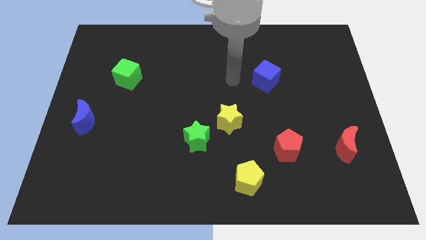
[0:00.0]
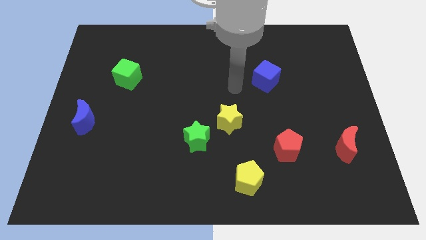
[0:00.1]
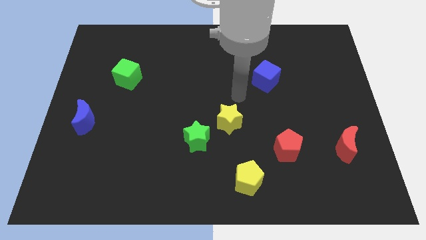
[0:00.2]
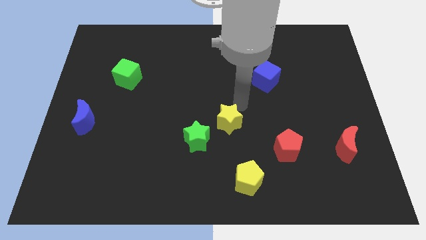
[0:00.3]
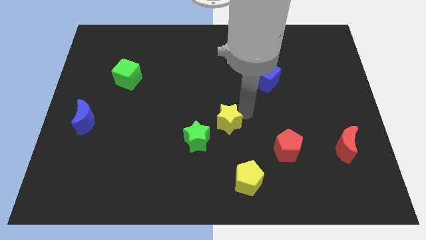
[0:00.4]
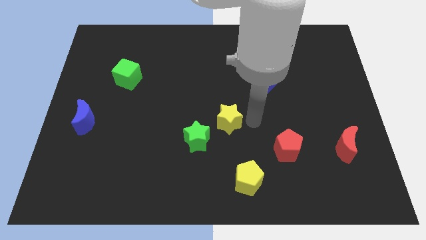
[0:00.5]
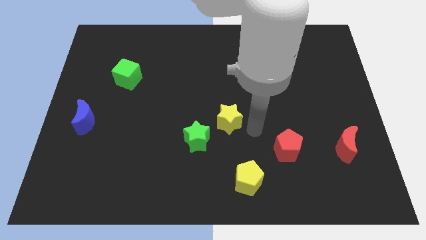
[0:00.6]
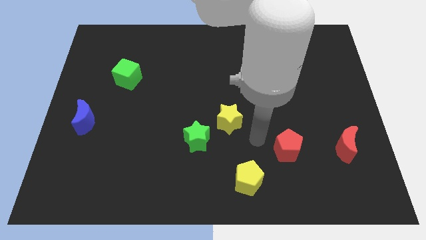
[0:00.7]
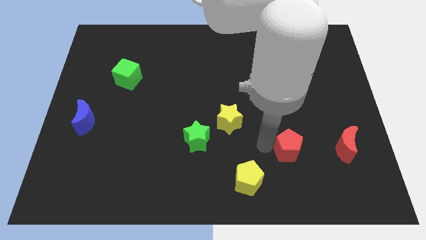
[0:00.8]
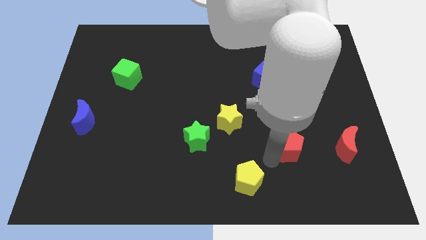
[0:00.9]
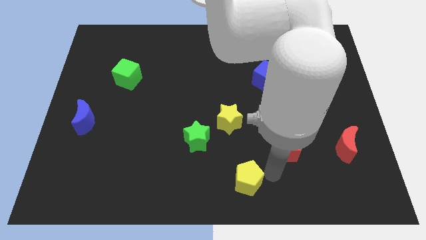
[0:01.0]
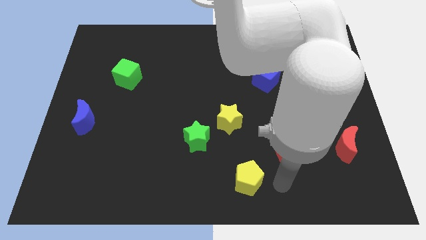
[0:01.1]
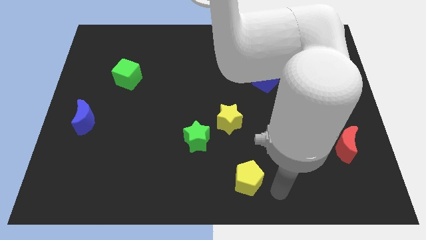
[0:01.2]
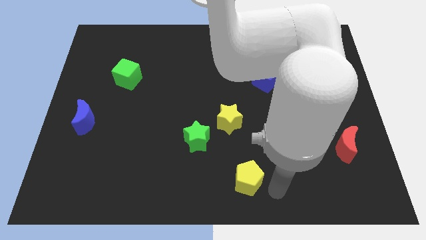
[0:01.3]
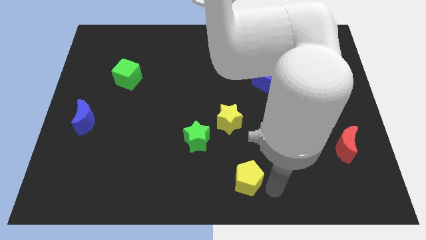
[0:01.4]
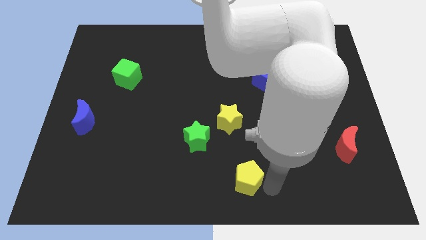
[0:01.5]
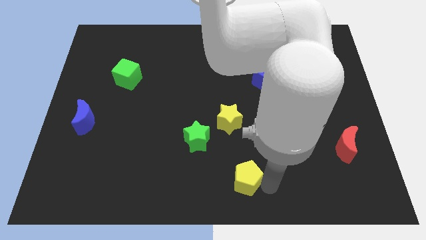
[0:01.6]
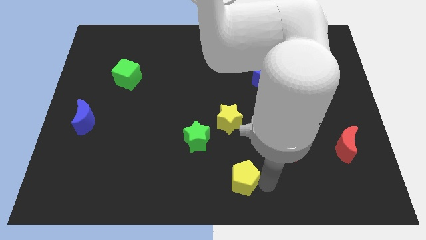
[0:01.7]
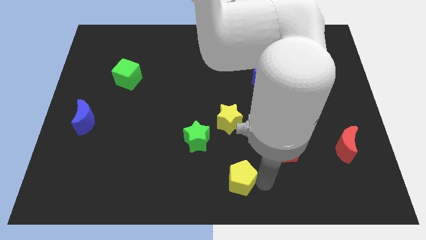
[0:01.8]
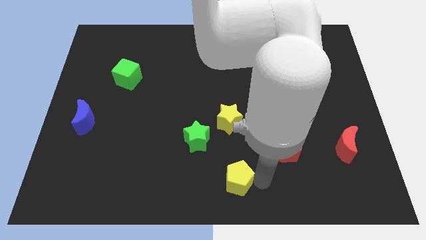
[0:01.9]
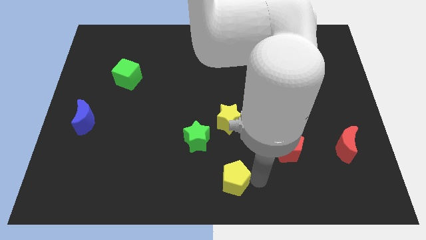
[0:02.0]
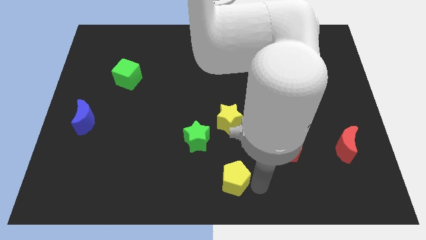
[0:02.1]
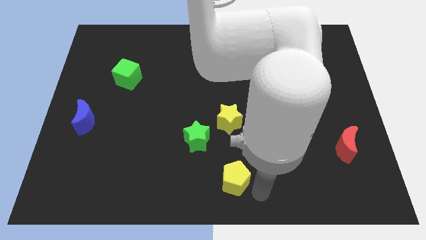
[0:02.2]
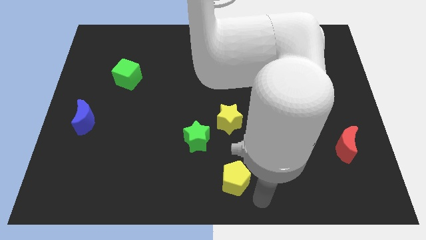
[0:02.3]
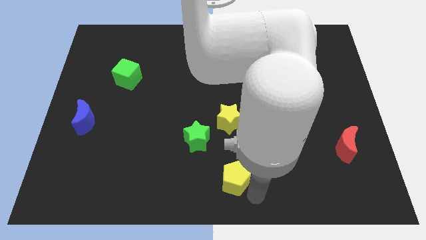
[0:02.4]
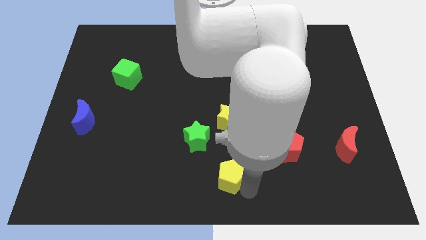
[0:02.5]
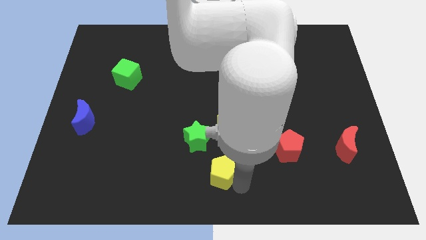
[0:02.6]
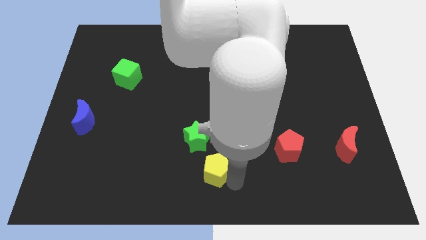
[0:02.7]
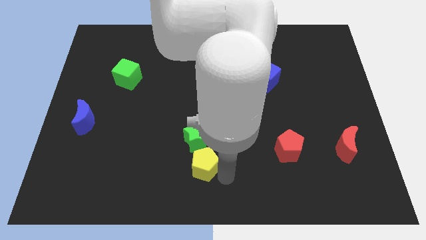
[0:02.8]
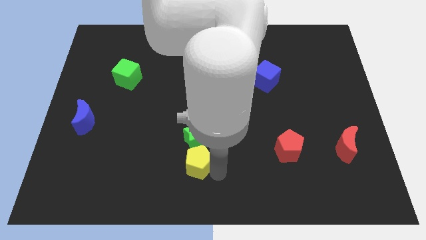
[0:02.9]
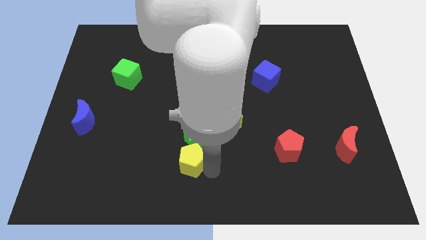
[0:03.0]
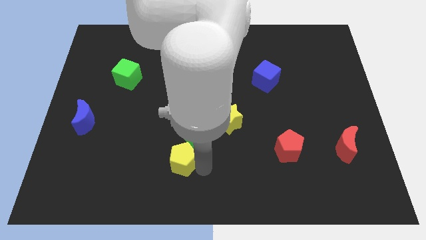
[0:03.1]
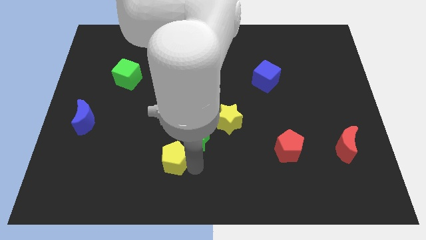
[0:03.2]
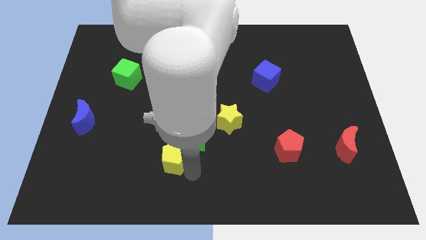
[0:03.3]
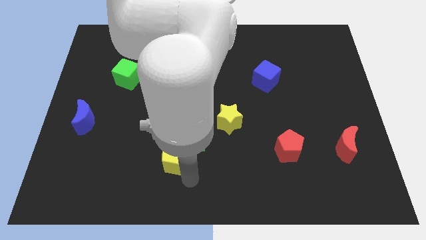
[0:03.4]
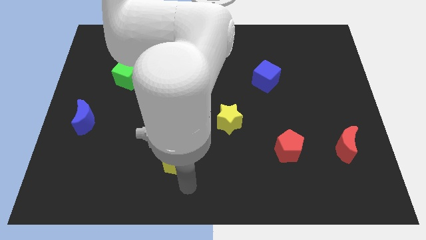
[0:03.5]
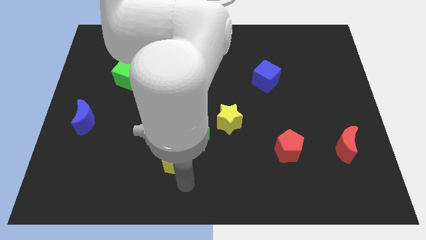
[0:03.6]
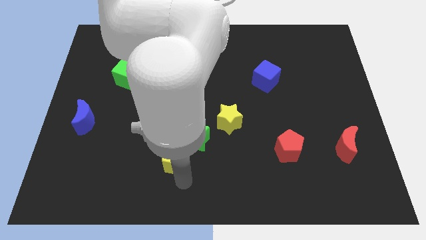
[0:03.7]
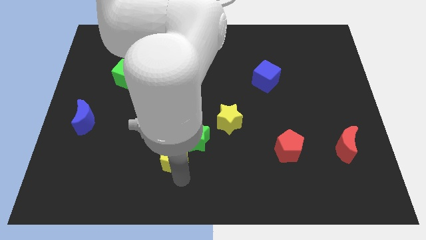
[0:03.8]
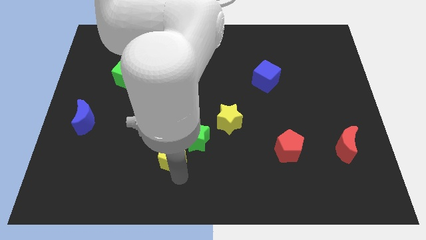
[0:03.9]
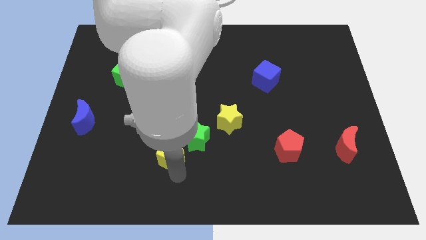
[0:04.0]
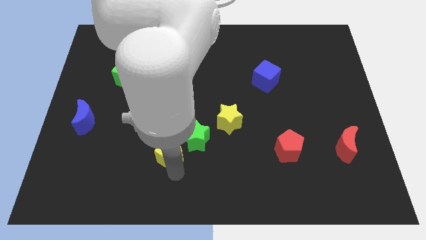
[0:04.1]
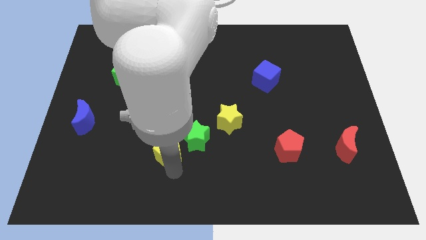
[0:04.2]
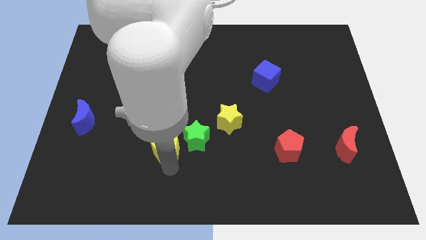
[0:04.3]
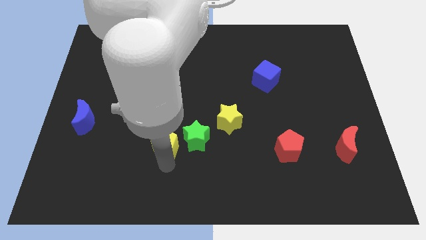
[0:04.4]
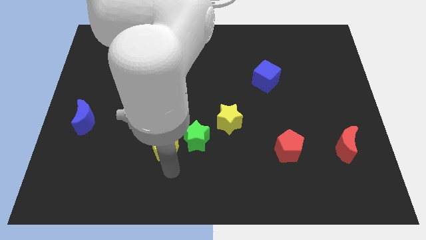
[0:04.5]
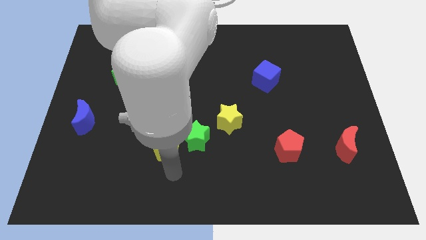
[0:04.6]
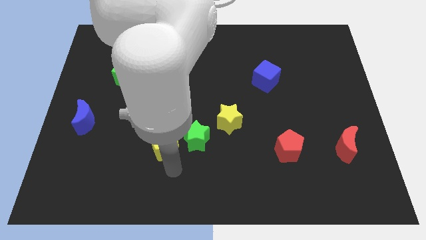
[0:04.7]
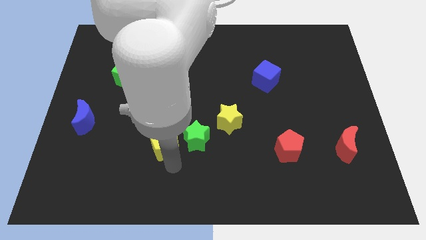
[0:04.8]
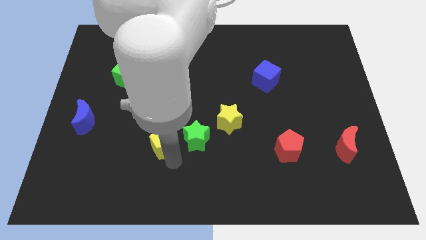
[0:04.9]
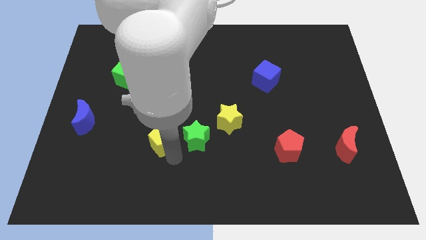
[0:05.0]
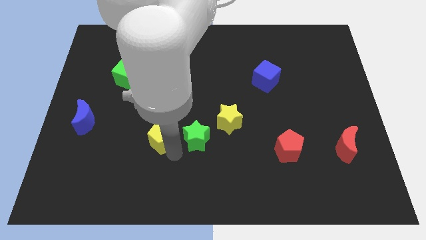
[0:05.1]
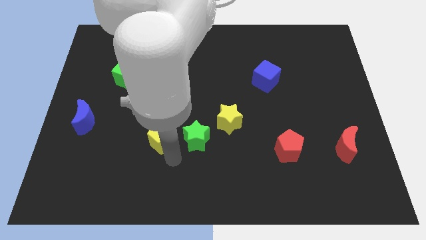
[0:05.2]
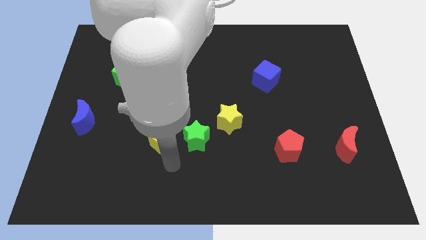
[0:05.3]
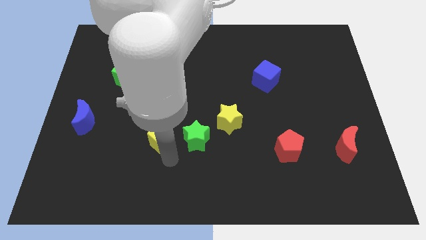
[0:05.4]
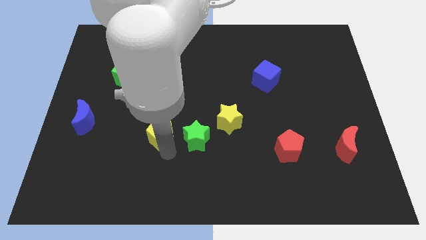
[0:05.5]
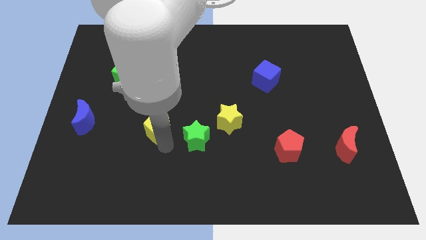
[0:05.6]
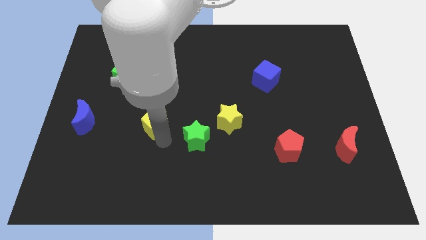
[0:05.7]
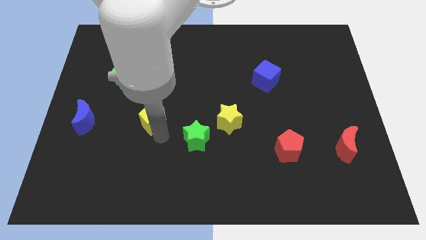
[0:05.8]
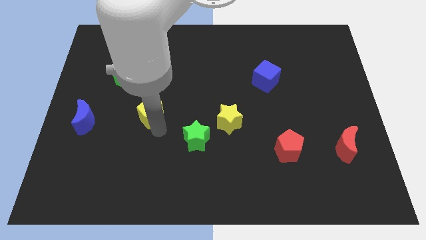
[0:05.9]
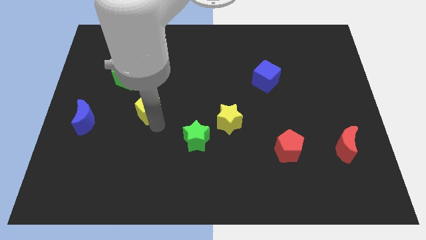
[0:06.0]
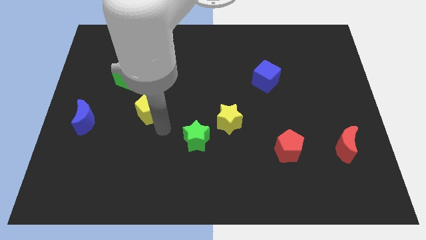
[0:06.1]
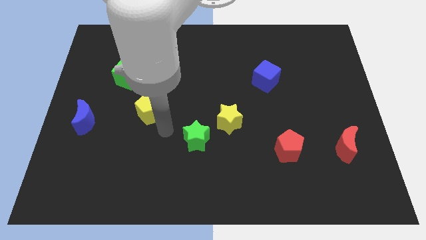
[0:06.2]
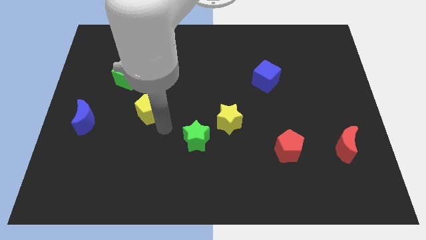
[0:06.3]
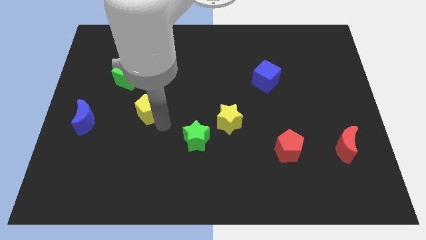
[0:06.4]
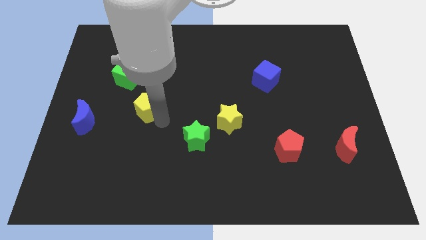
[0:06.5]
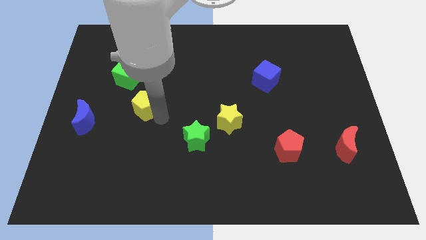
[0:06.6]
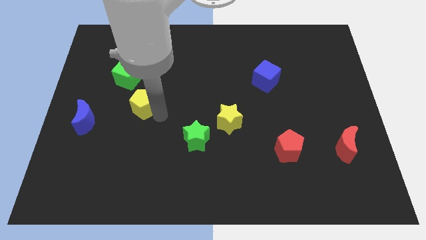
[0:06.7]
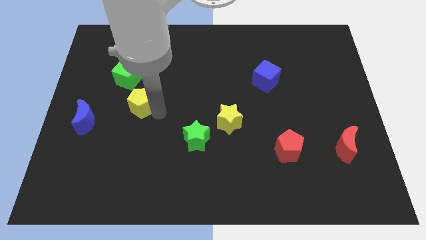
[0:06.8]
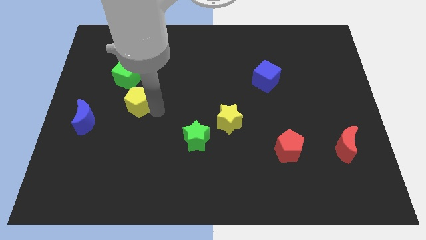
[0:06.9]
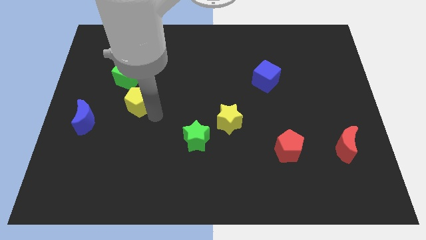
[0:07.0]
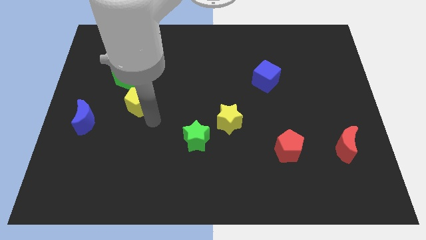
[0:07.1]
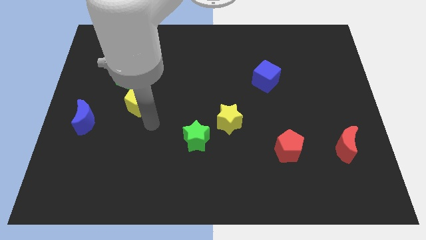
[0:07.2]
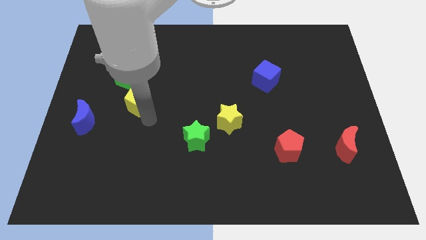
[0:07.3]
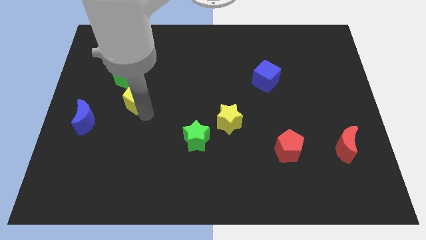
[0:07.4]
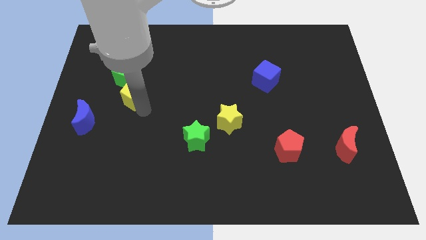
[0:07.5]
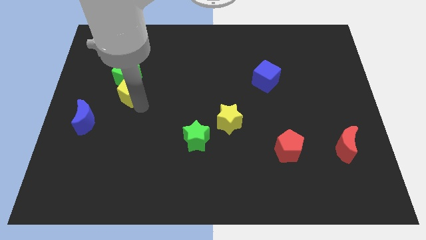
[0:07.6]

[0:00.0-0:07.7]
put the yellow pentagon towards the green cube
